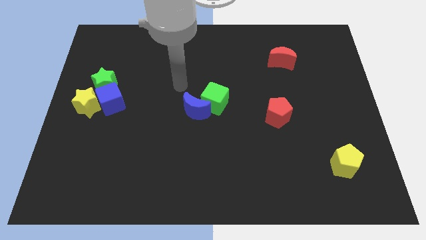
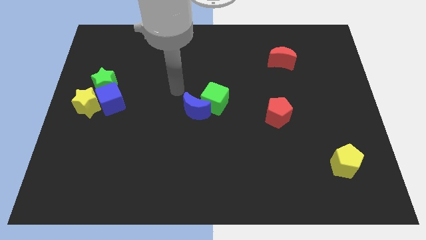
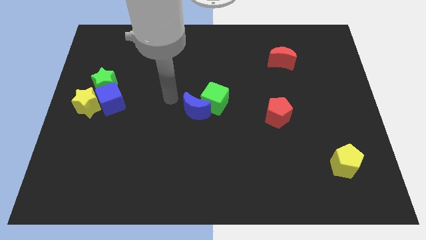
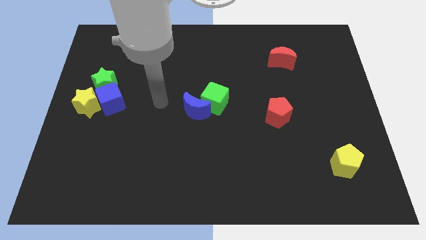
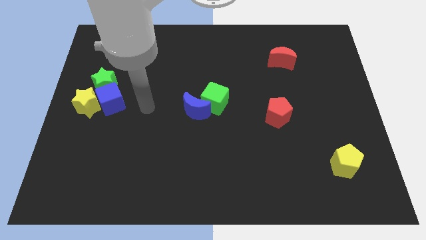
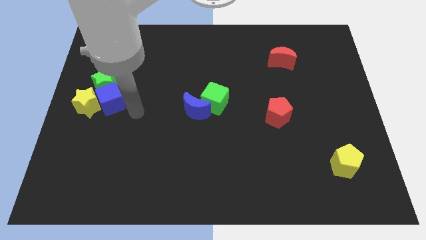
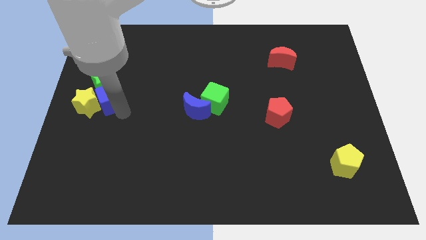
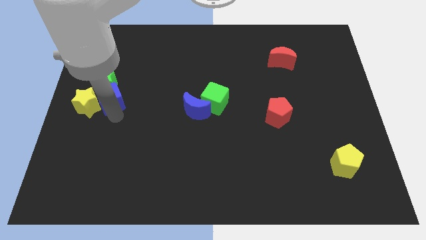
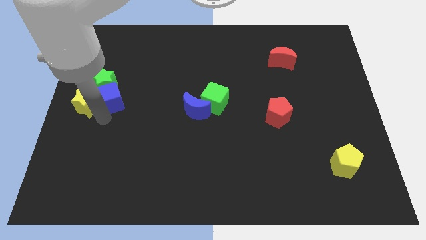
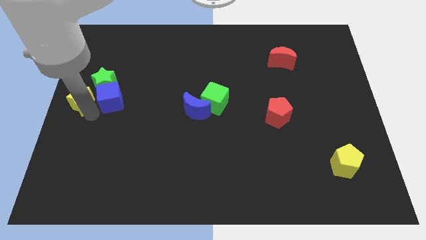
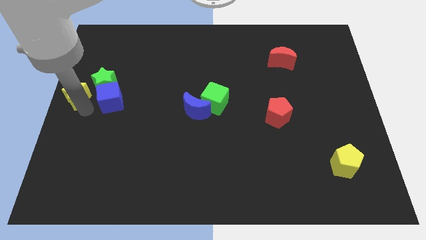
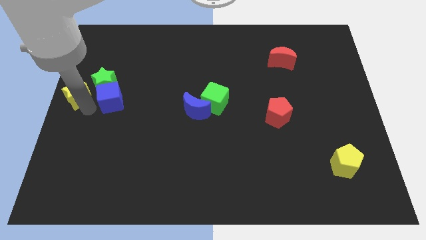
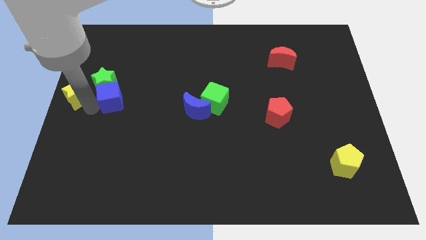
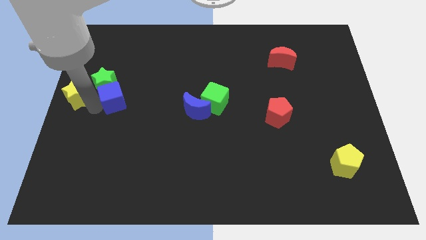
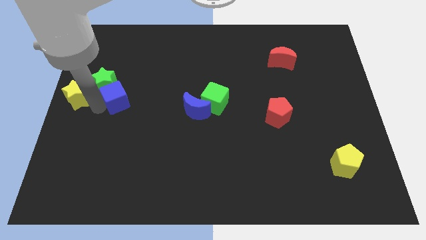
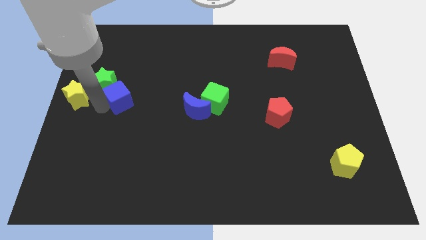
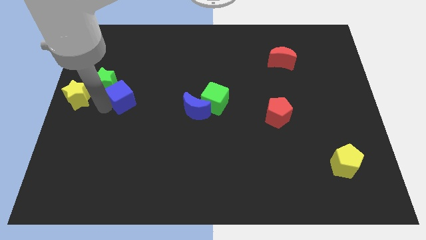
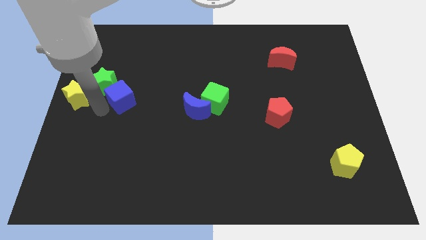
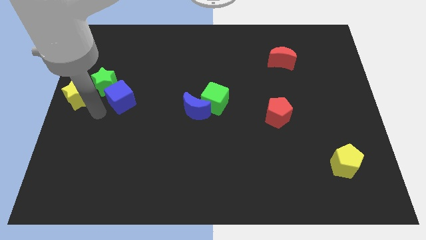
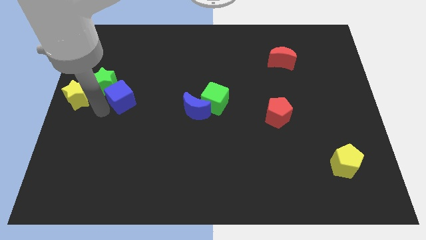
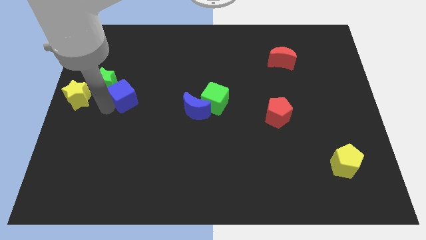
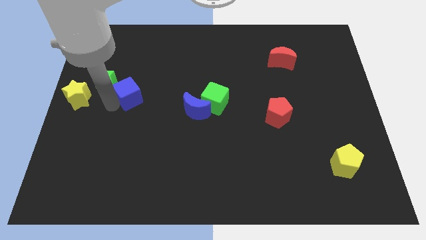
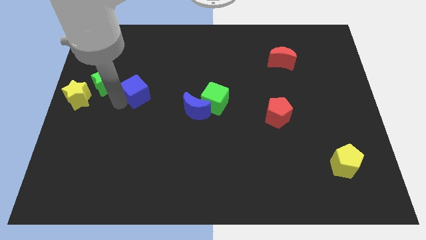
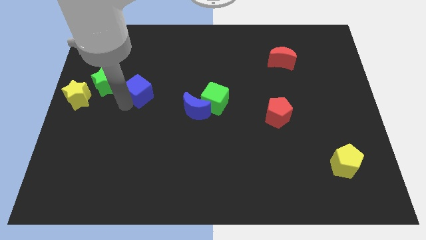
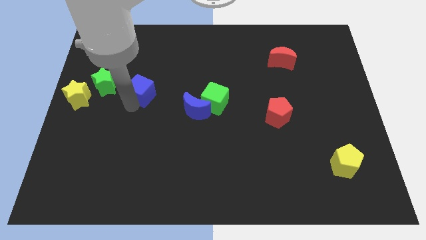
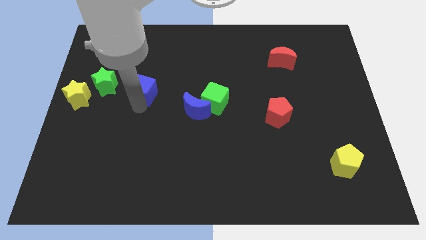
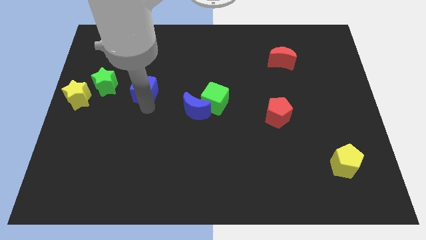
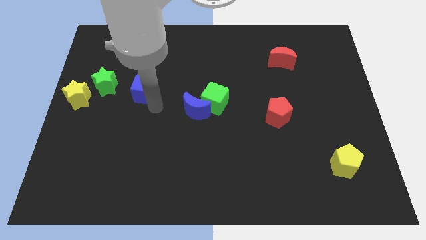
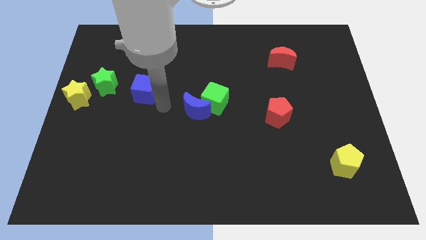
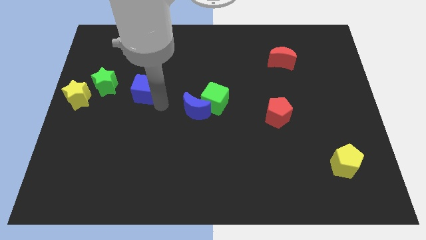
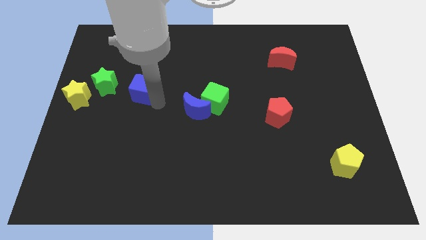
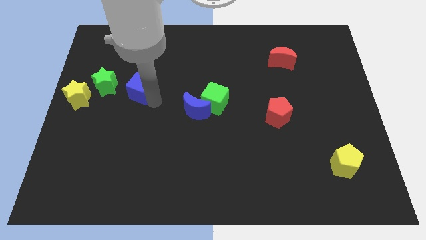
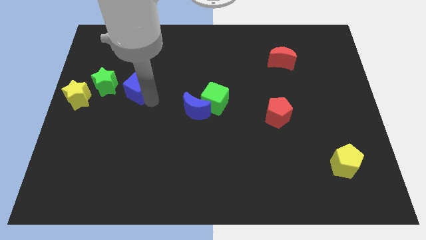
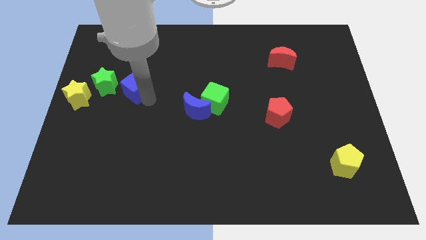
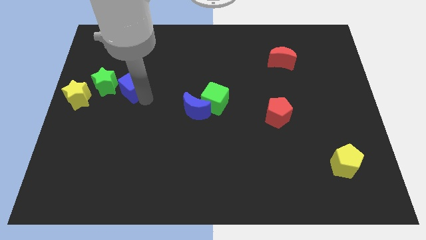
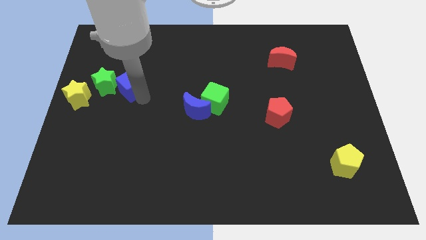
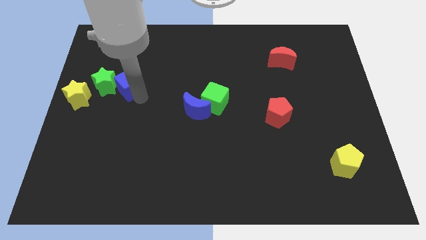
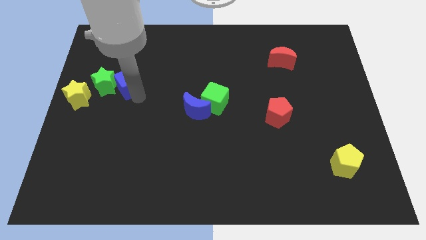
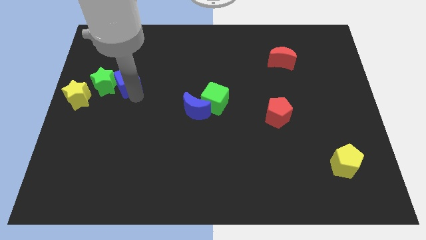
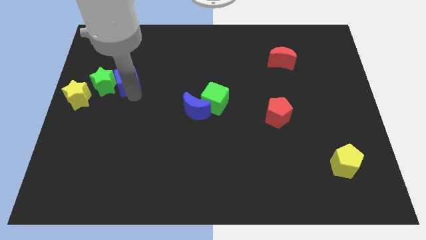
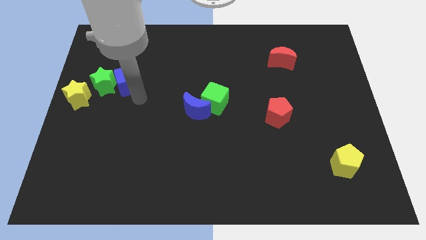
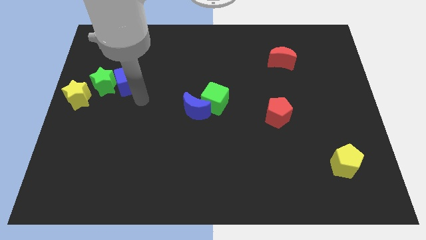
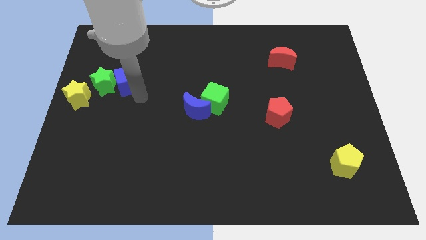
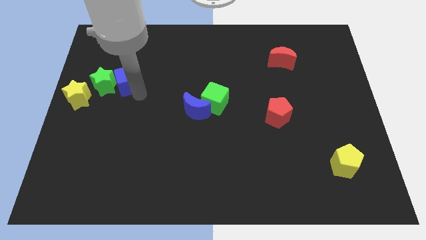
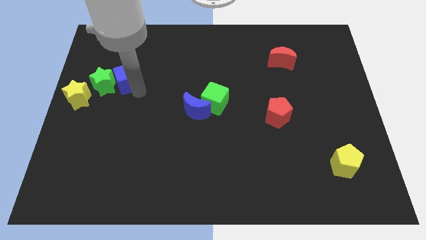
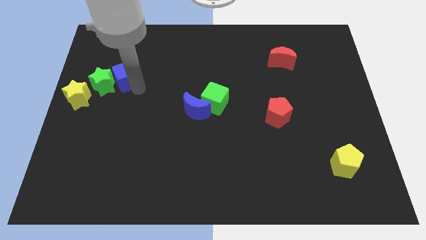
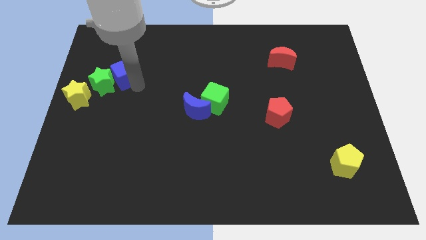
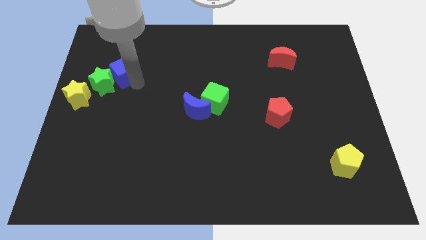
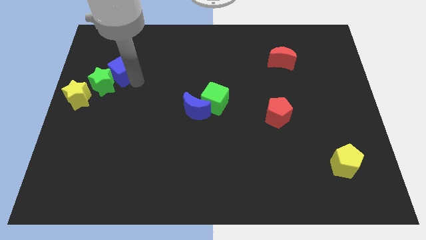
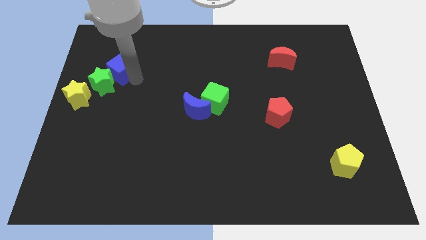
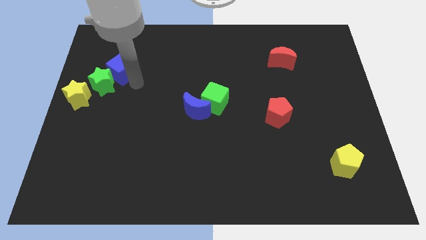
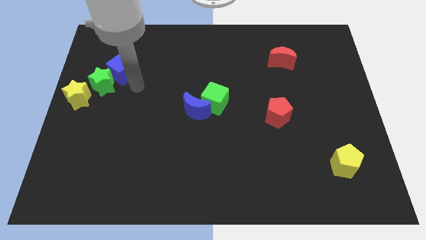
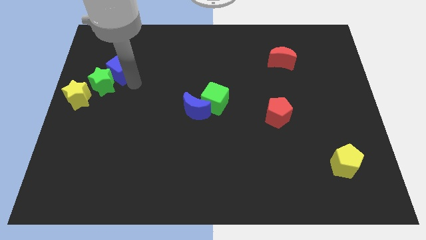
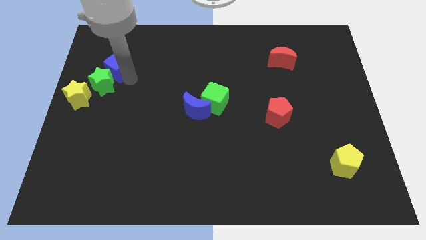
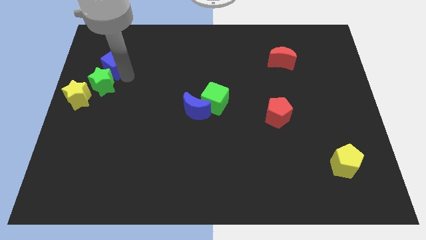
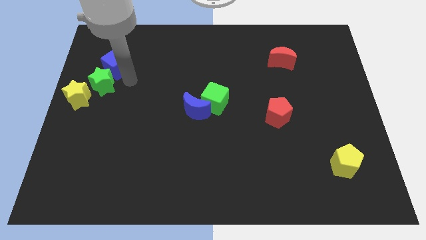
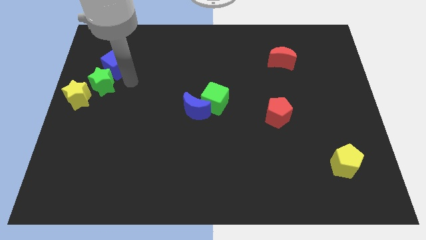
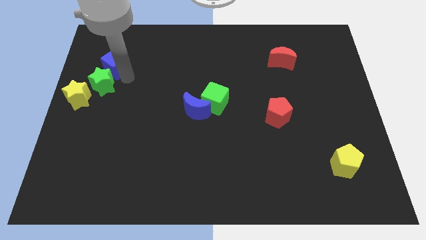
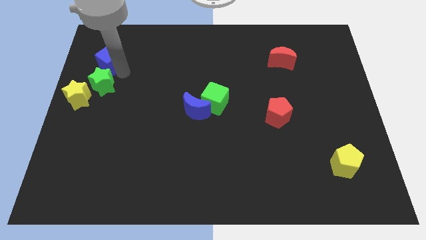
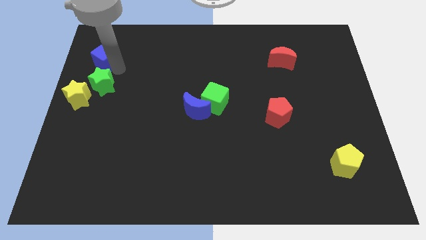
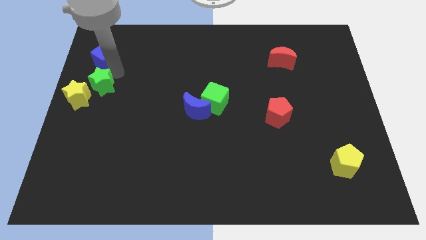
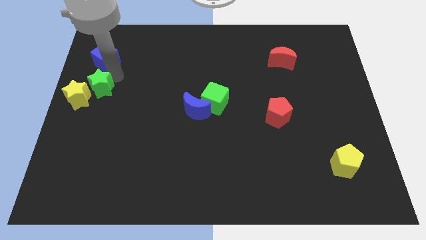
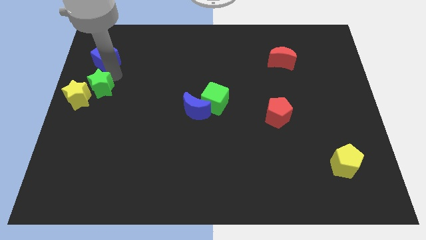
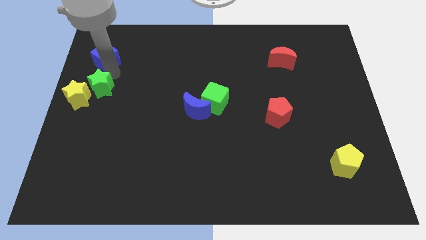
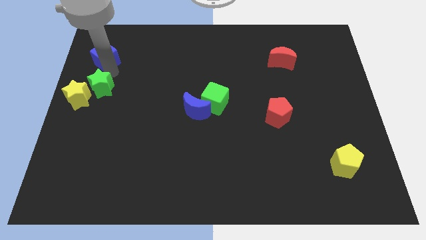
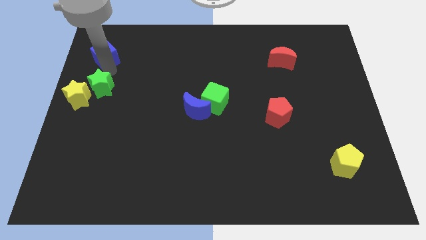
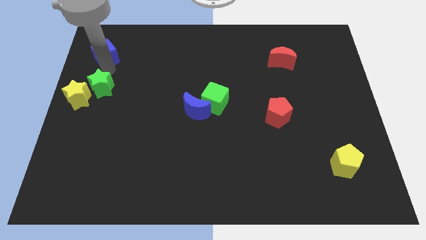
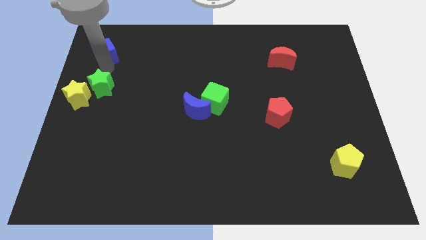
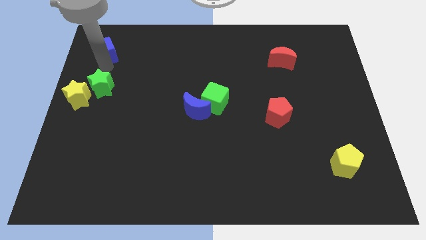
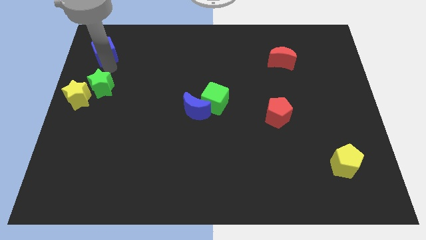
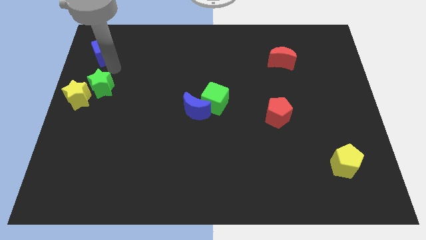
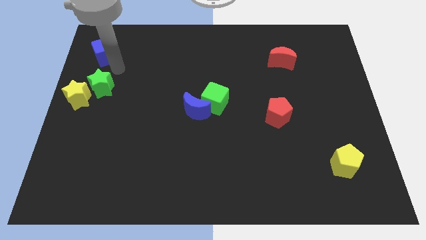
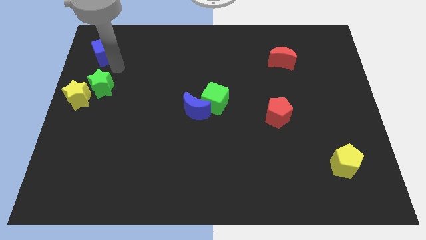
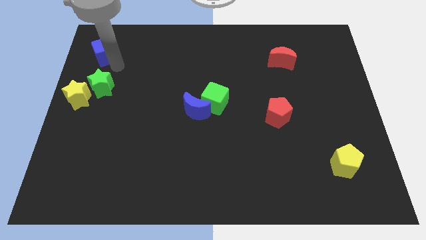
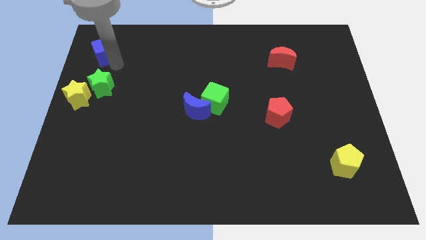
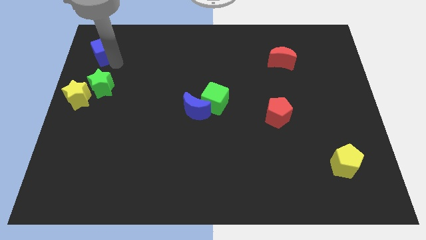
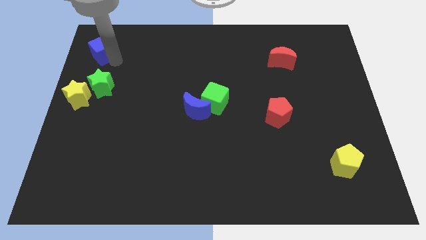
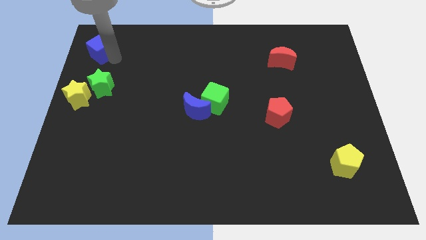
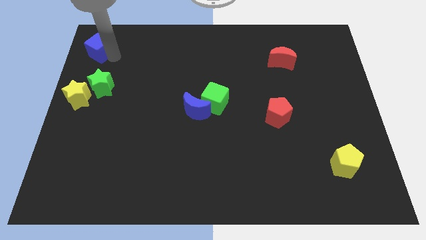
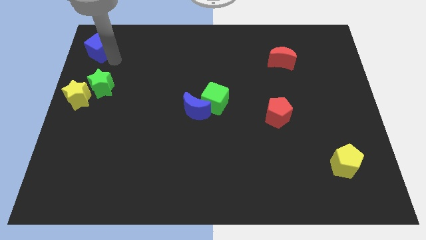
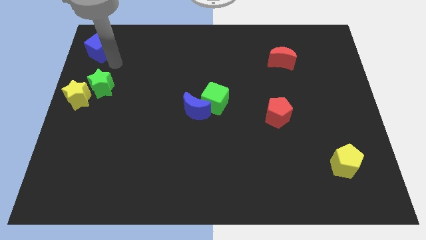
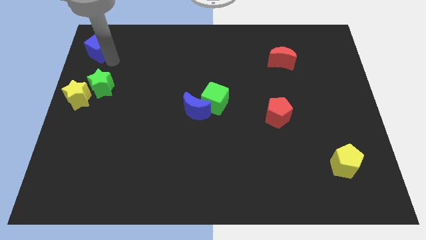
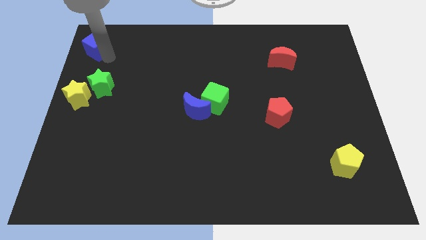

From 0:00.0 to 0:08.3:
move the blue cube to the top left of the board
